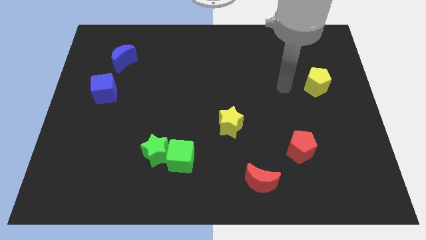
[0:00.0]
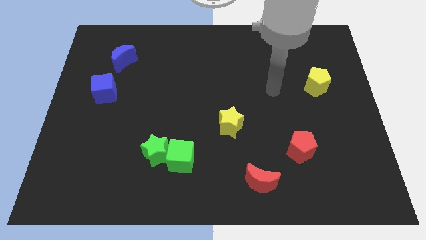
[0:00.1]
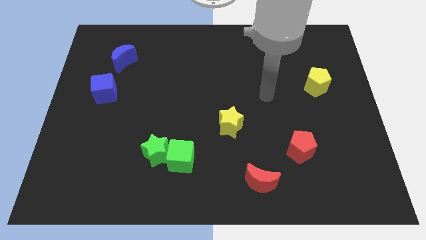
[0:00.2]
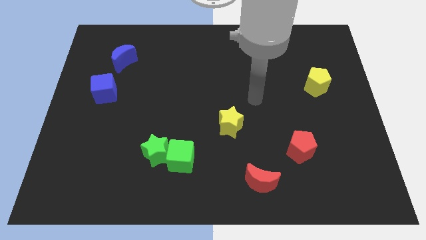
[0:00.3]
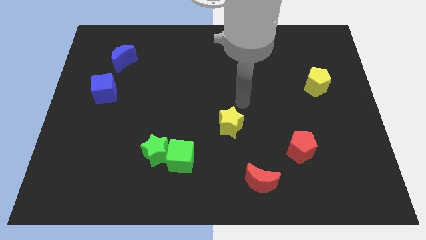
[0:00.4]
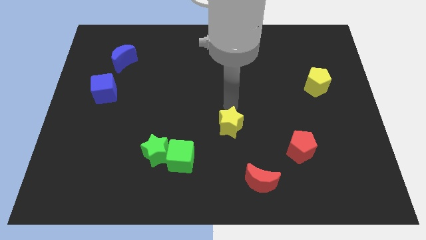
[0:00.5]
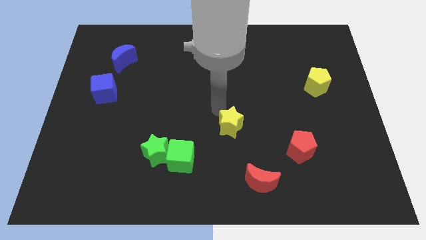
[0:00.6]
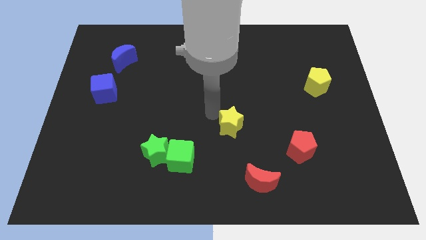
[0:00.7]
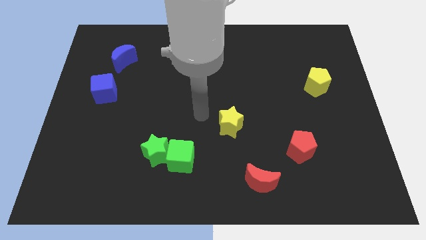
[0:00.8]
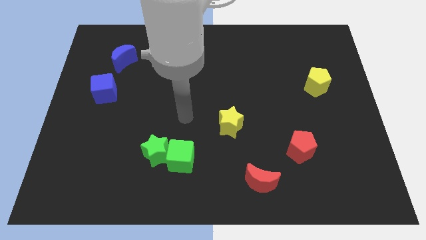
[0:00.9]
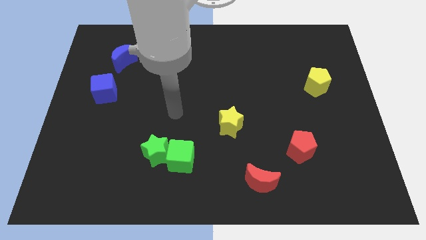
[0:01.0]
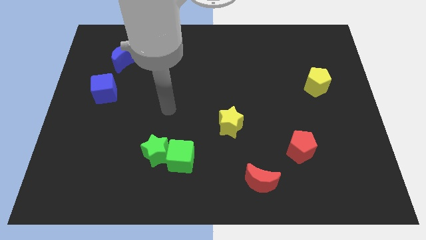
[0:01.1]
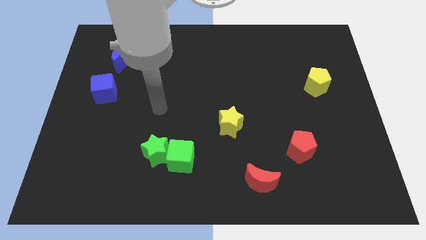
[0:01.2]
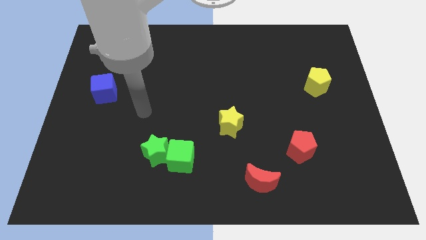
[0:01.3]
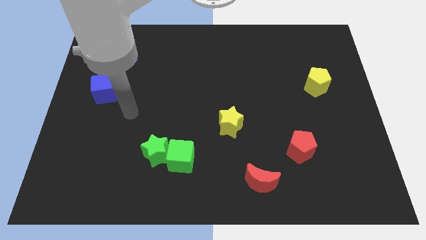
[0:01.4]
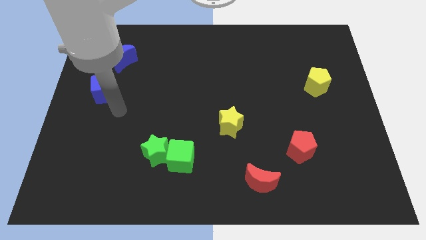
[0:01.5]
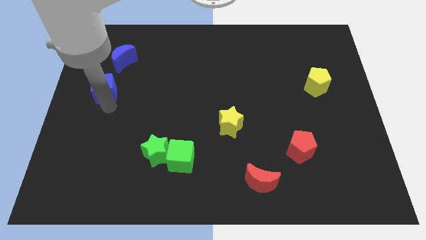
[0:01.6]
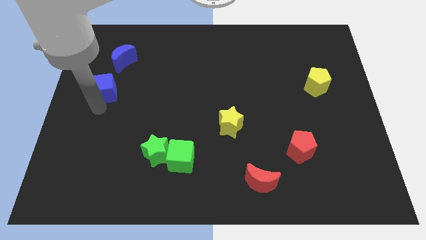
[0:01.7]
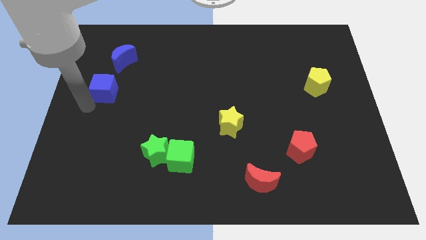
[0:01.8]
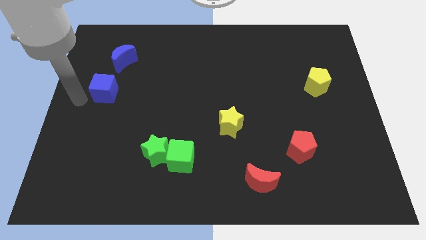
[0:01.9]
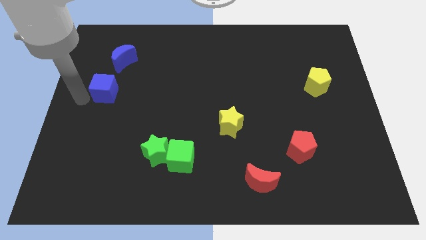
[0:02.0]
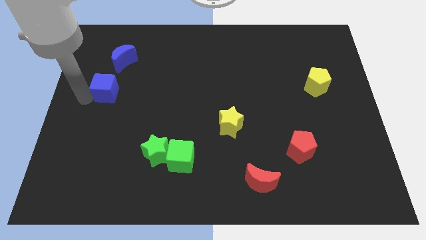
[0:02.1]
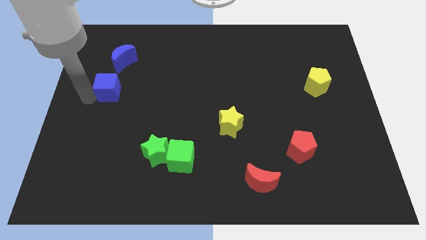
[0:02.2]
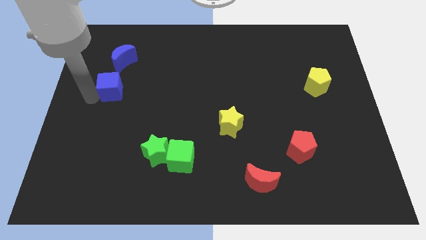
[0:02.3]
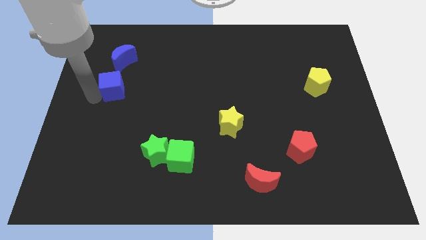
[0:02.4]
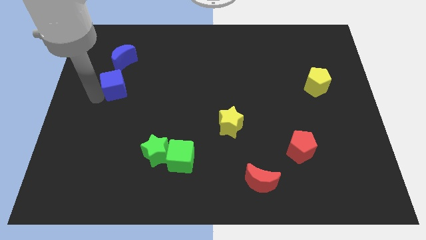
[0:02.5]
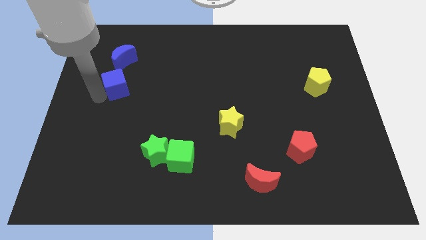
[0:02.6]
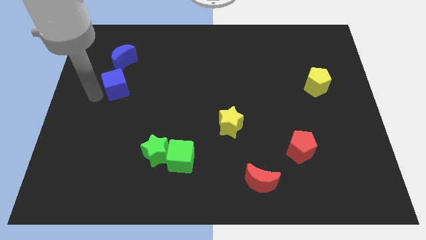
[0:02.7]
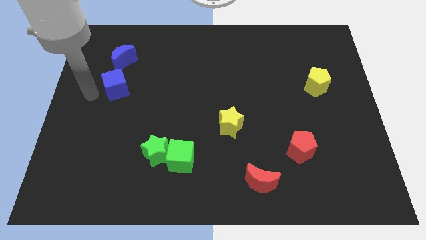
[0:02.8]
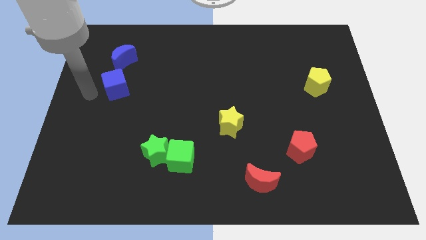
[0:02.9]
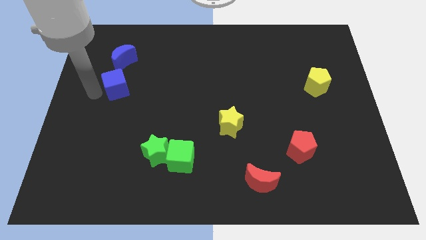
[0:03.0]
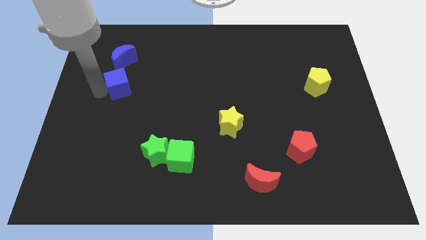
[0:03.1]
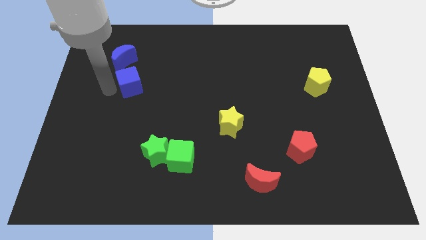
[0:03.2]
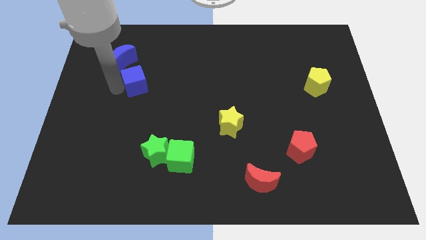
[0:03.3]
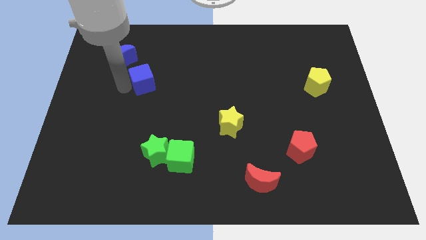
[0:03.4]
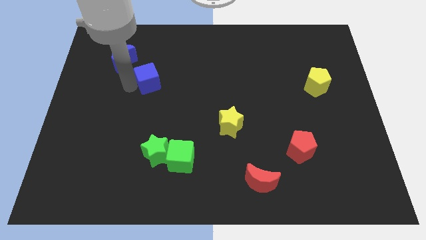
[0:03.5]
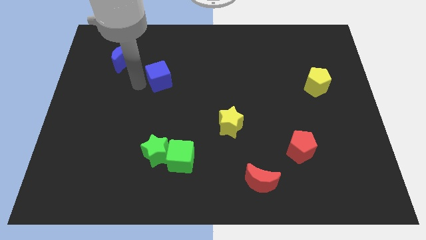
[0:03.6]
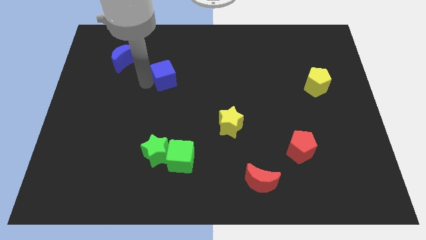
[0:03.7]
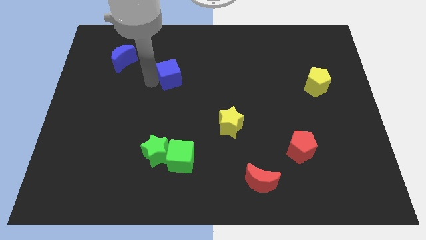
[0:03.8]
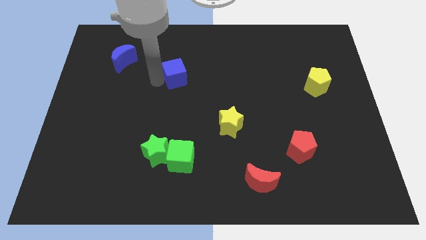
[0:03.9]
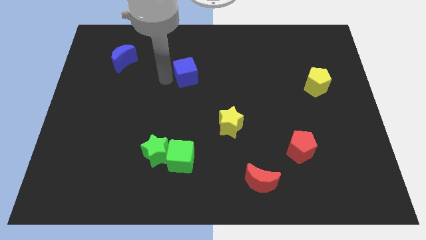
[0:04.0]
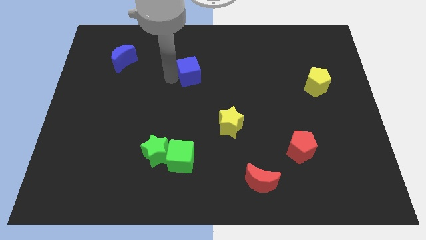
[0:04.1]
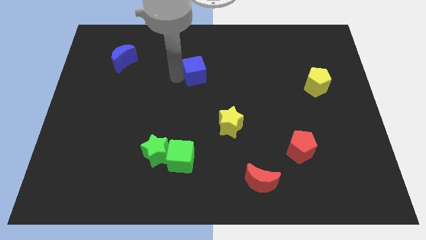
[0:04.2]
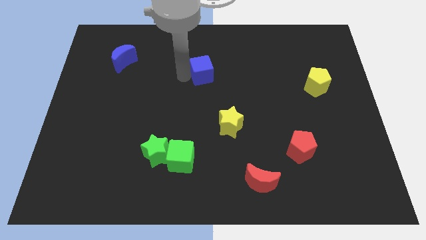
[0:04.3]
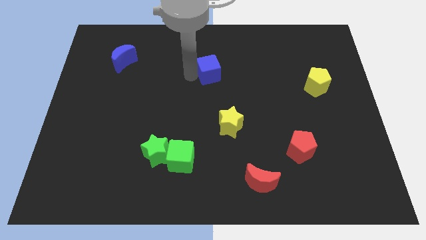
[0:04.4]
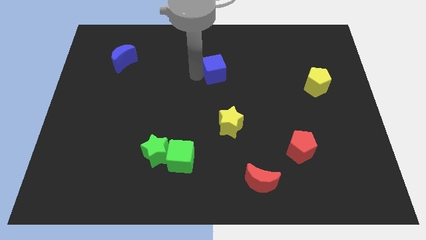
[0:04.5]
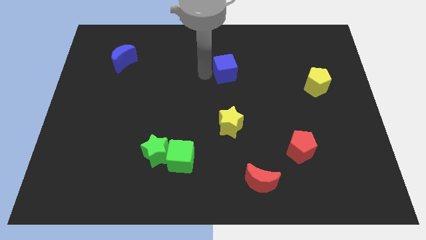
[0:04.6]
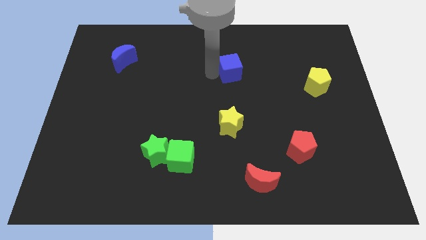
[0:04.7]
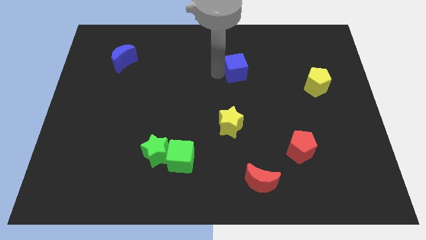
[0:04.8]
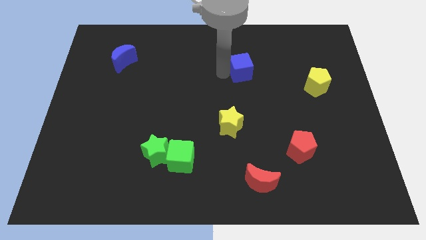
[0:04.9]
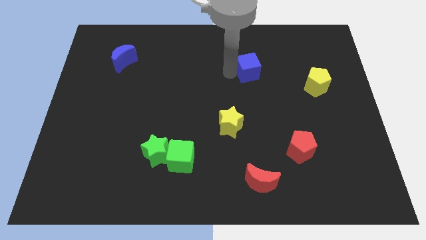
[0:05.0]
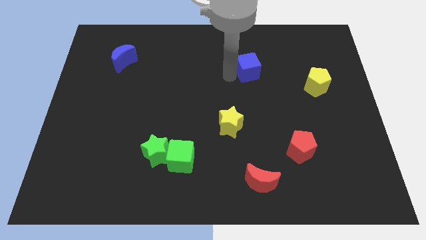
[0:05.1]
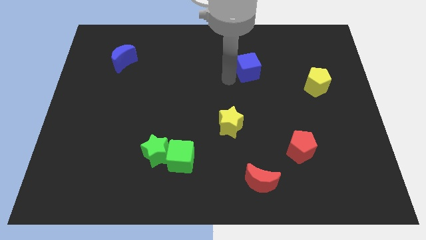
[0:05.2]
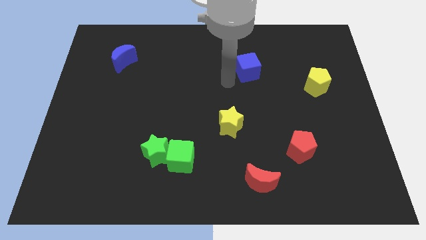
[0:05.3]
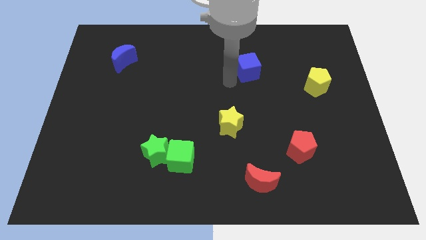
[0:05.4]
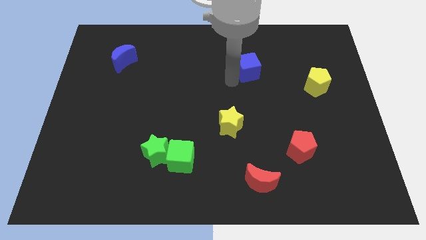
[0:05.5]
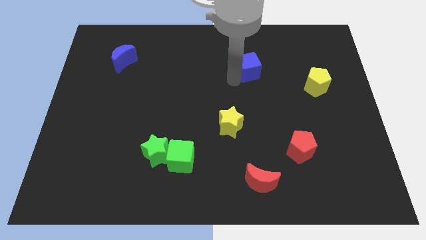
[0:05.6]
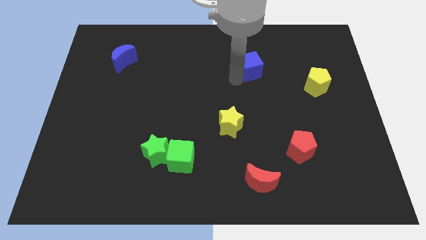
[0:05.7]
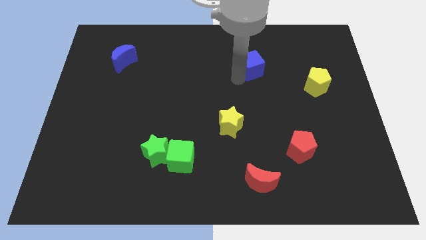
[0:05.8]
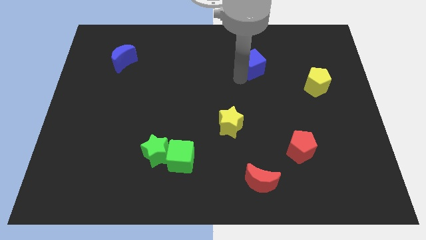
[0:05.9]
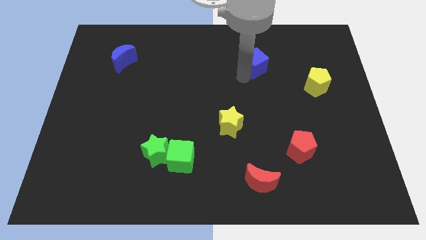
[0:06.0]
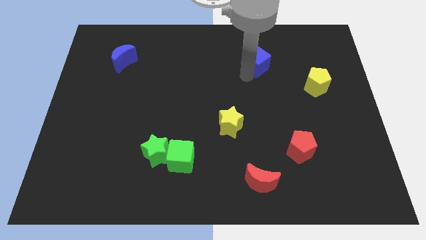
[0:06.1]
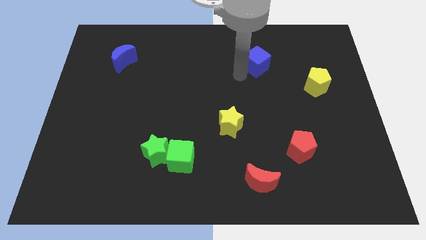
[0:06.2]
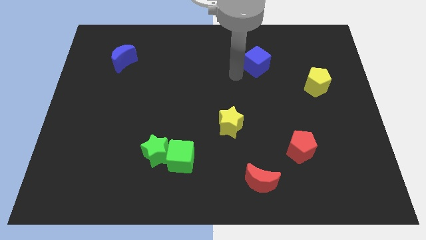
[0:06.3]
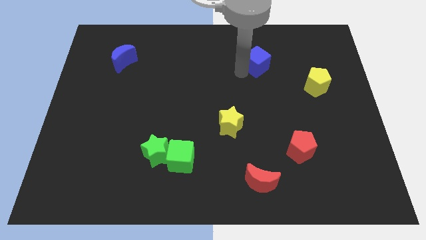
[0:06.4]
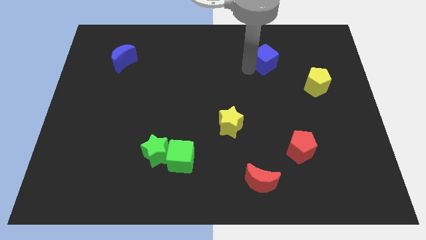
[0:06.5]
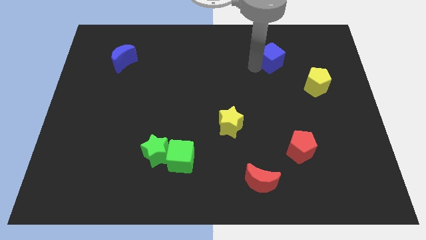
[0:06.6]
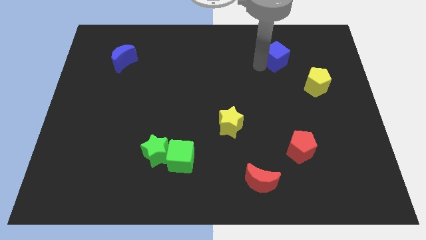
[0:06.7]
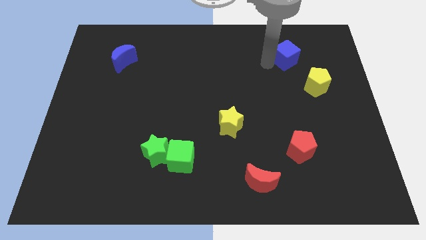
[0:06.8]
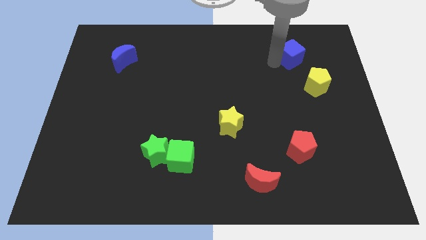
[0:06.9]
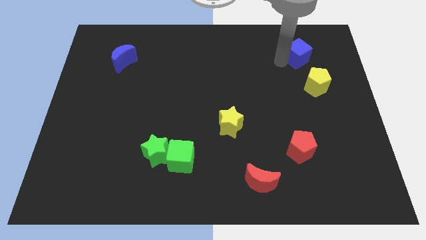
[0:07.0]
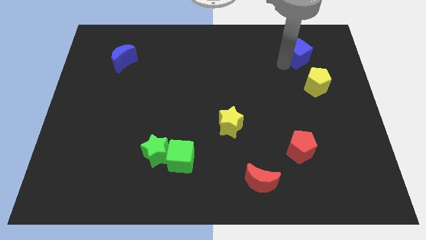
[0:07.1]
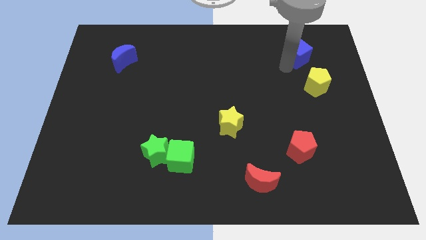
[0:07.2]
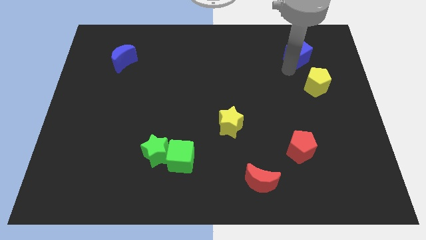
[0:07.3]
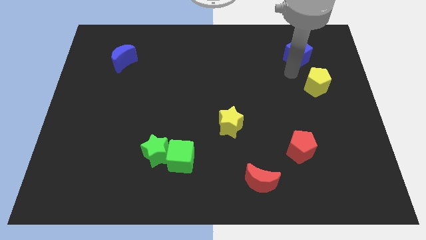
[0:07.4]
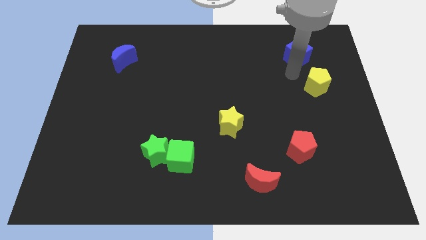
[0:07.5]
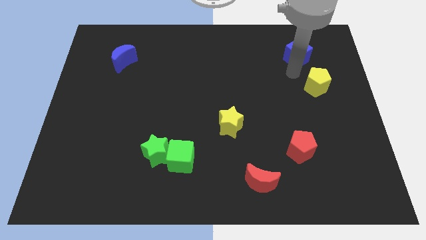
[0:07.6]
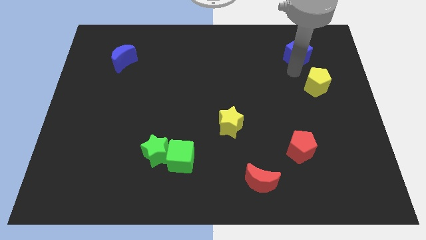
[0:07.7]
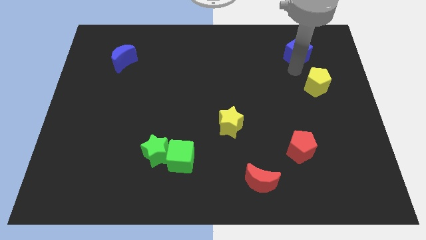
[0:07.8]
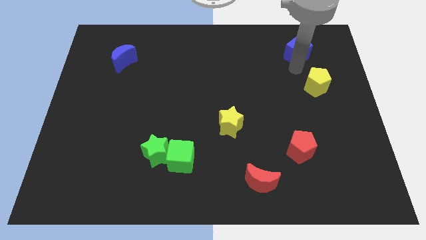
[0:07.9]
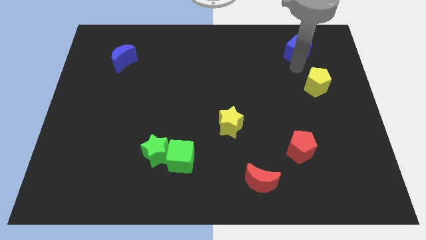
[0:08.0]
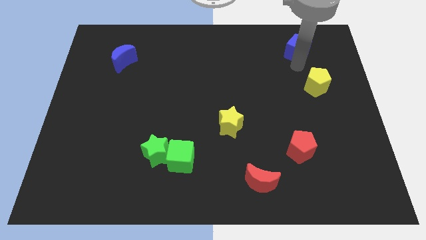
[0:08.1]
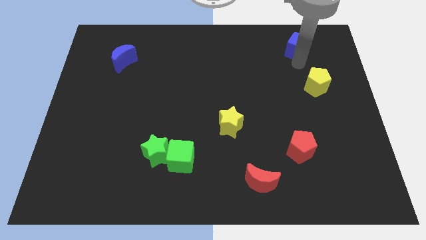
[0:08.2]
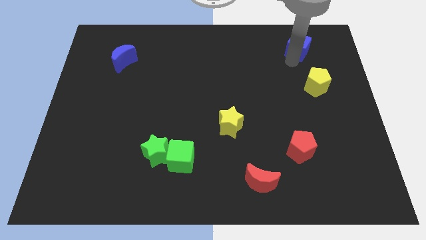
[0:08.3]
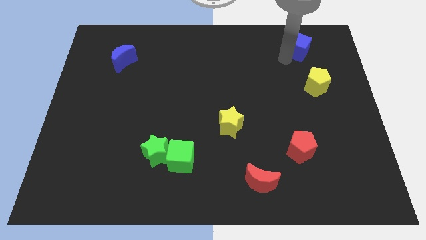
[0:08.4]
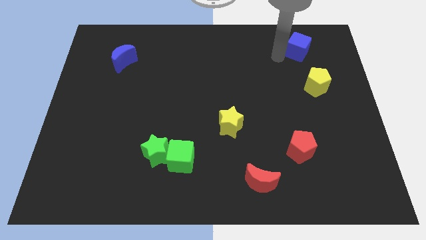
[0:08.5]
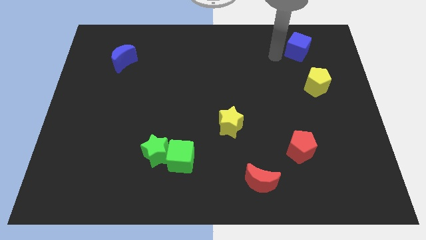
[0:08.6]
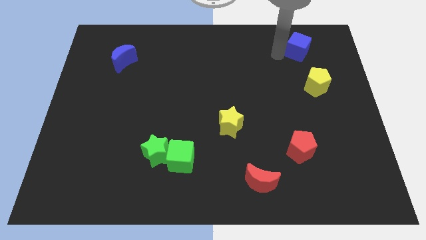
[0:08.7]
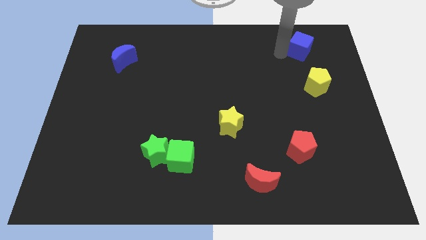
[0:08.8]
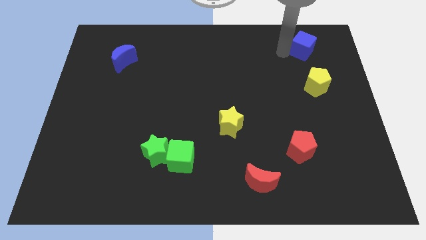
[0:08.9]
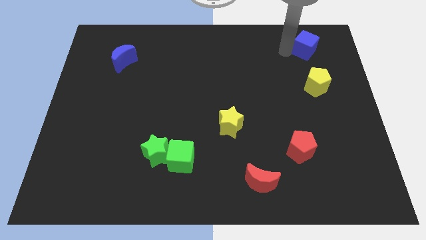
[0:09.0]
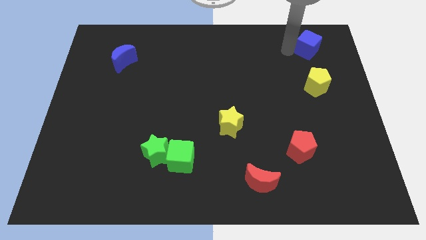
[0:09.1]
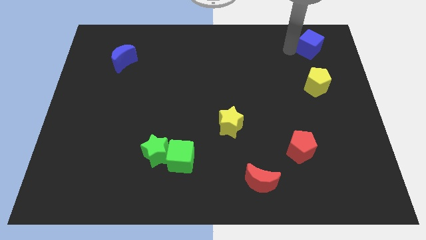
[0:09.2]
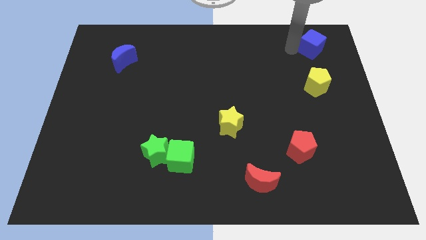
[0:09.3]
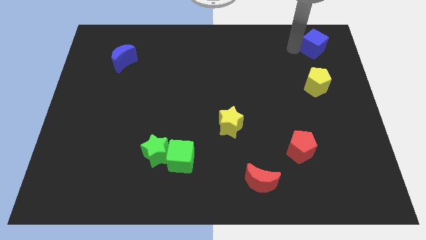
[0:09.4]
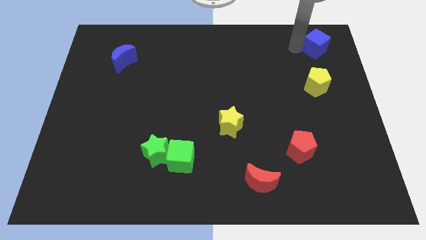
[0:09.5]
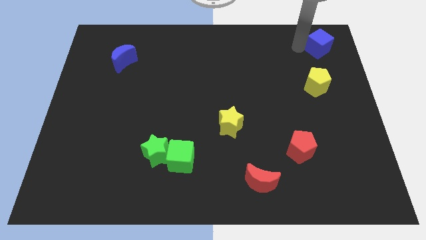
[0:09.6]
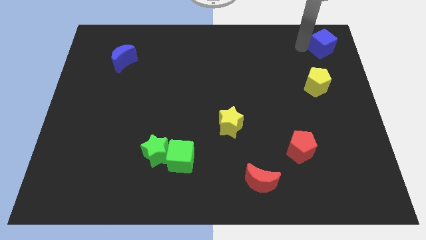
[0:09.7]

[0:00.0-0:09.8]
slide the blue cube to the upper right corner
